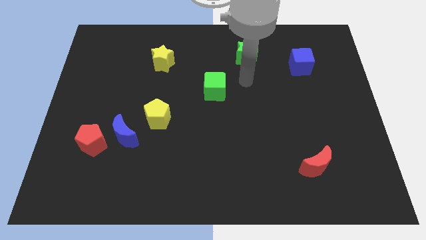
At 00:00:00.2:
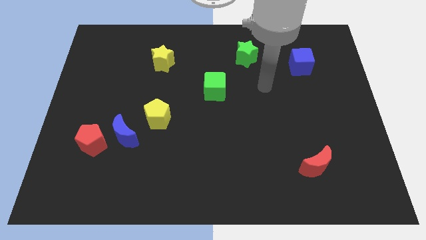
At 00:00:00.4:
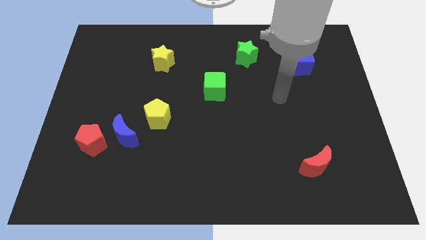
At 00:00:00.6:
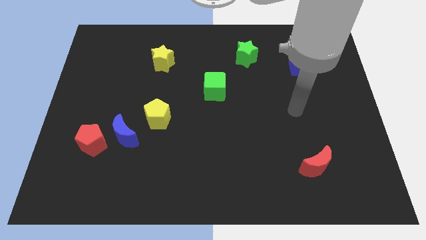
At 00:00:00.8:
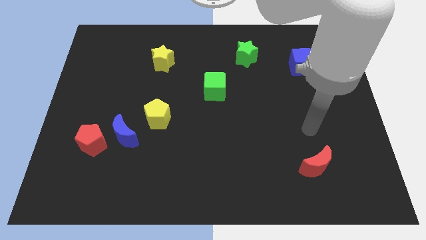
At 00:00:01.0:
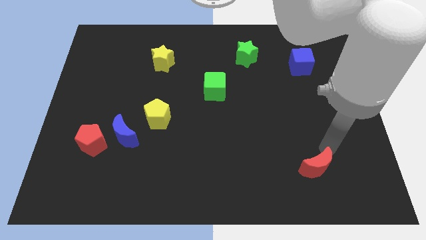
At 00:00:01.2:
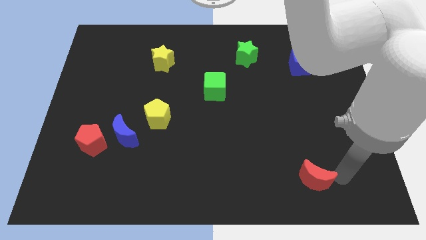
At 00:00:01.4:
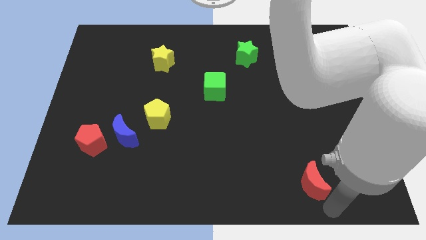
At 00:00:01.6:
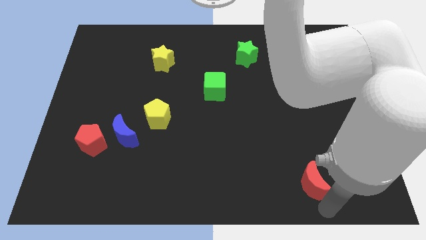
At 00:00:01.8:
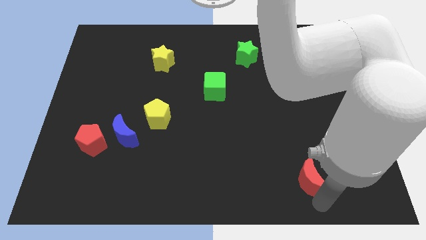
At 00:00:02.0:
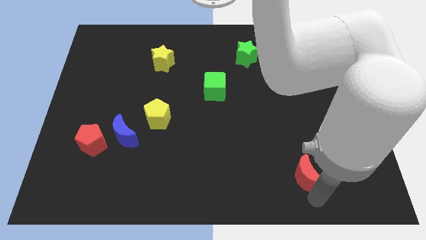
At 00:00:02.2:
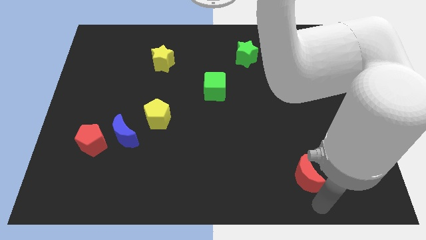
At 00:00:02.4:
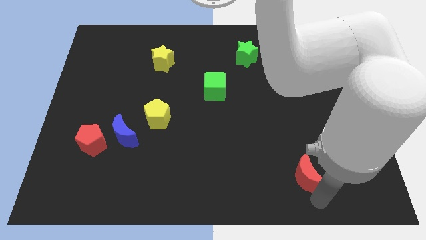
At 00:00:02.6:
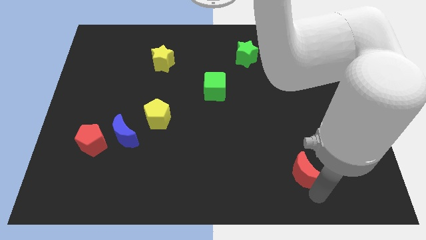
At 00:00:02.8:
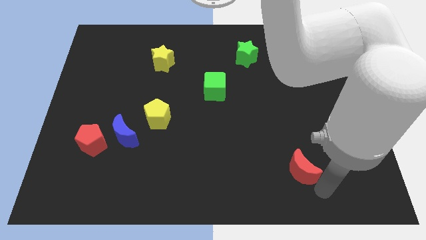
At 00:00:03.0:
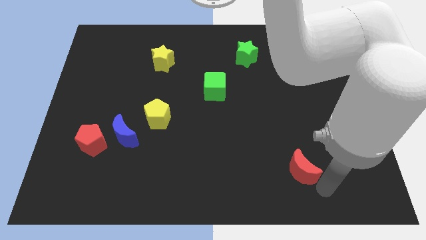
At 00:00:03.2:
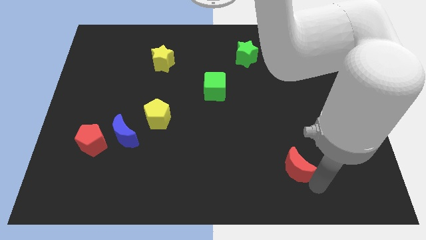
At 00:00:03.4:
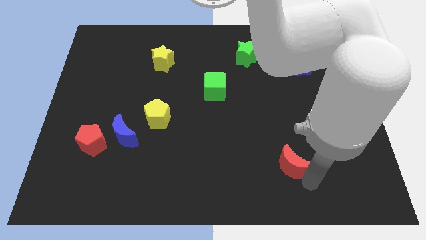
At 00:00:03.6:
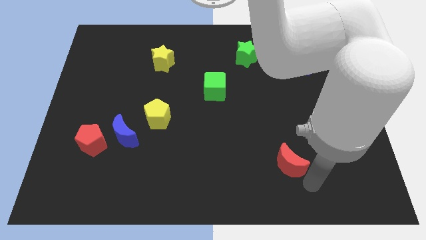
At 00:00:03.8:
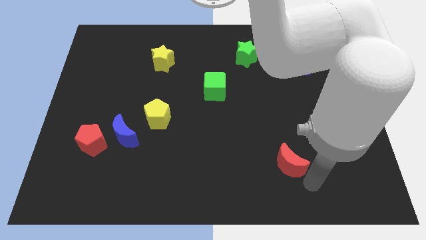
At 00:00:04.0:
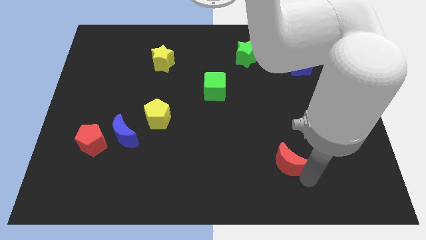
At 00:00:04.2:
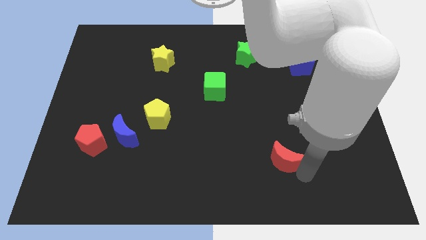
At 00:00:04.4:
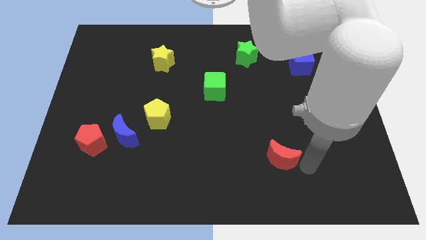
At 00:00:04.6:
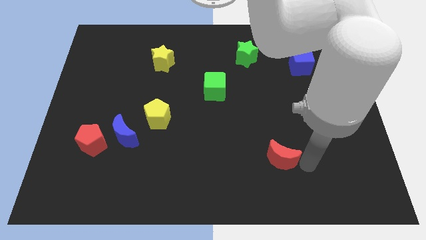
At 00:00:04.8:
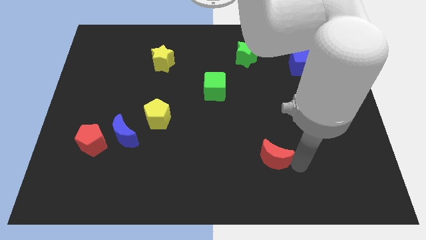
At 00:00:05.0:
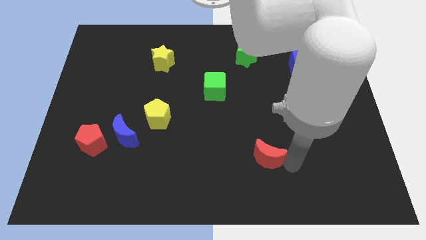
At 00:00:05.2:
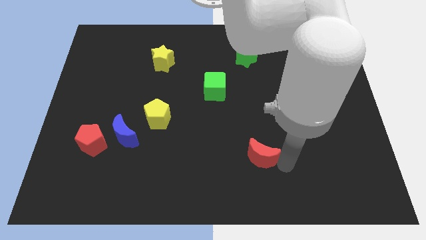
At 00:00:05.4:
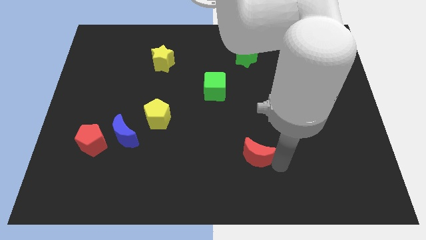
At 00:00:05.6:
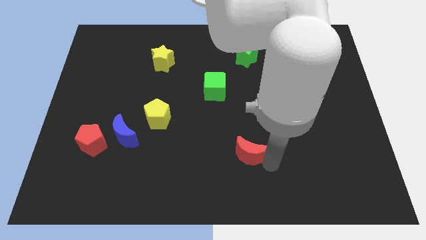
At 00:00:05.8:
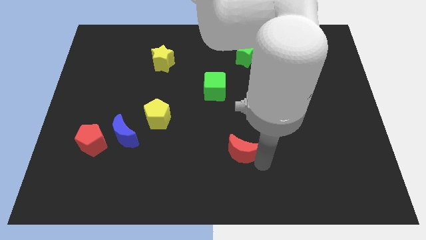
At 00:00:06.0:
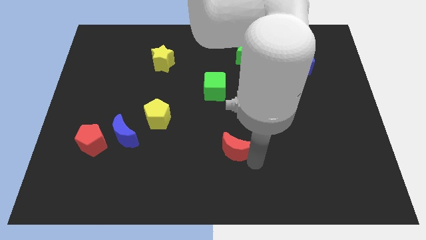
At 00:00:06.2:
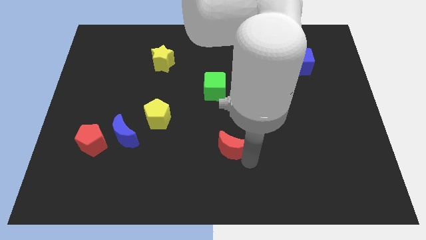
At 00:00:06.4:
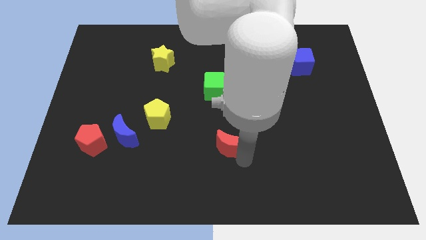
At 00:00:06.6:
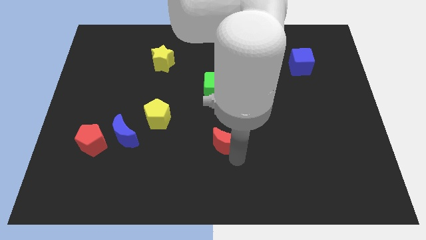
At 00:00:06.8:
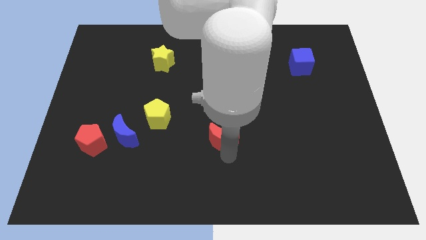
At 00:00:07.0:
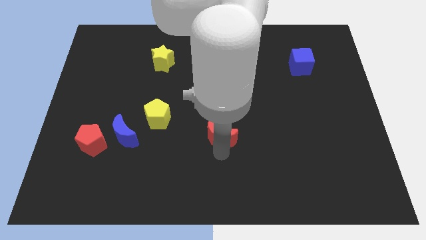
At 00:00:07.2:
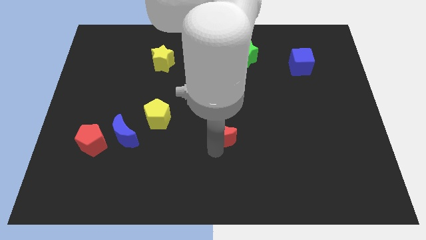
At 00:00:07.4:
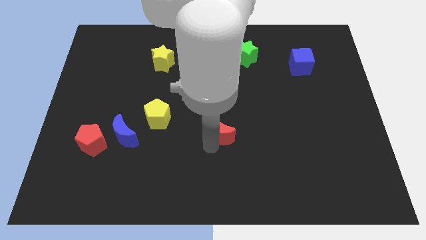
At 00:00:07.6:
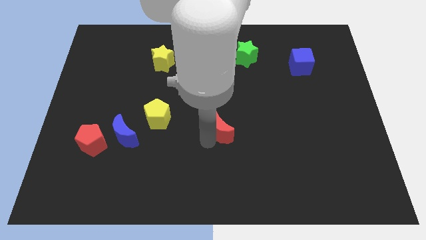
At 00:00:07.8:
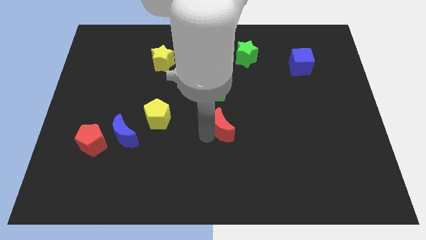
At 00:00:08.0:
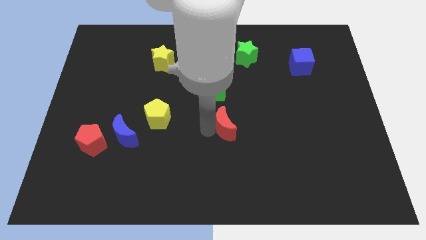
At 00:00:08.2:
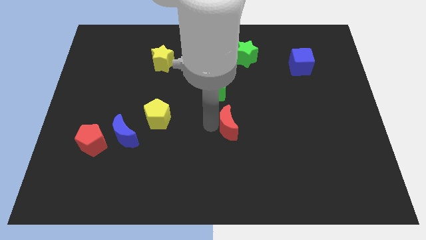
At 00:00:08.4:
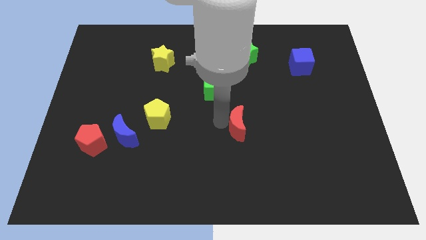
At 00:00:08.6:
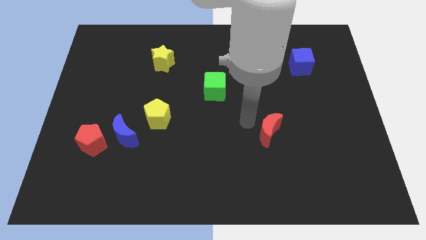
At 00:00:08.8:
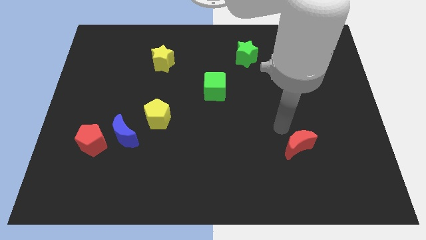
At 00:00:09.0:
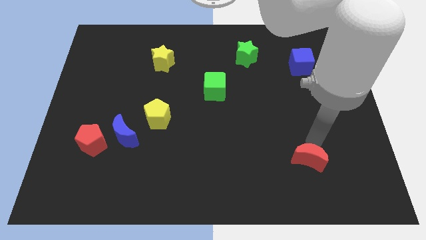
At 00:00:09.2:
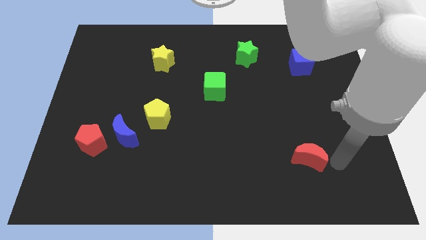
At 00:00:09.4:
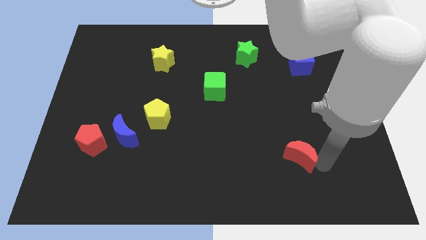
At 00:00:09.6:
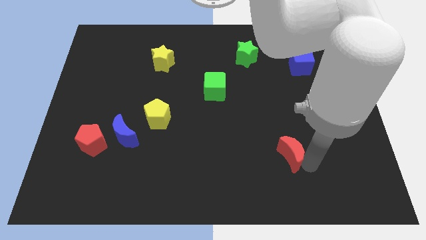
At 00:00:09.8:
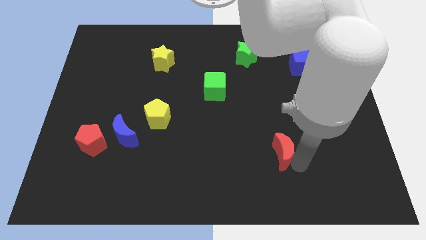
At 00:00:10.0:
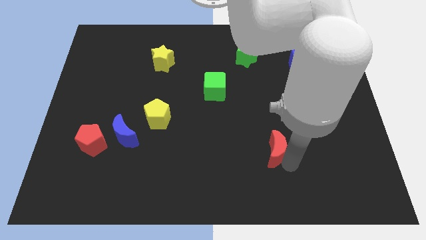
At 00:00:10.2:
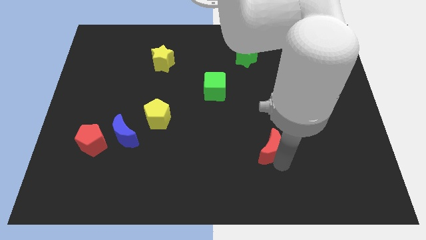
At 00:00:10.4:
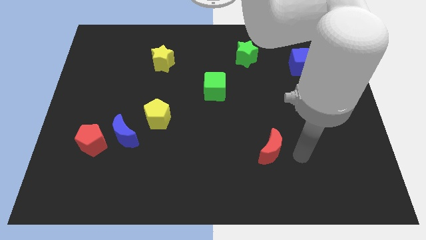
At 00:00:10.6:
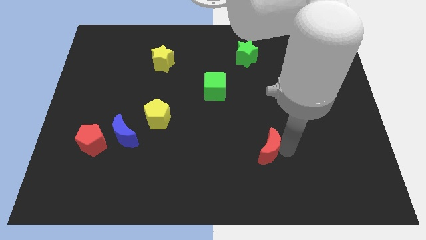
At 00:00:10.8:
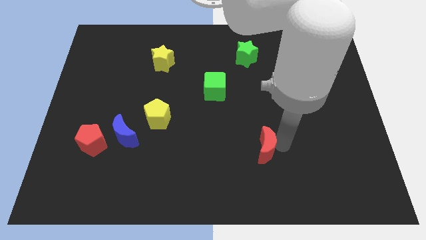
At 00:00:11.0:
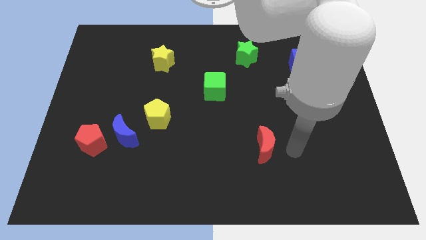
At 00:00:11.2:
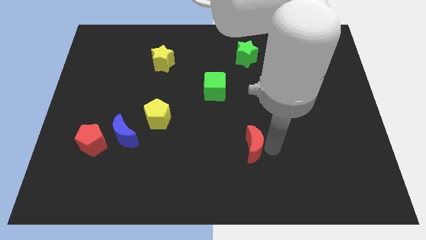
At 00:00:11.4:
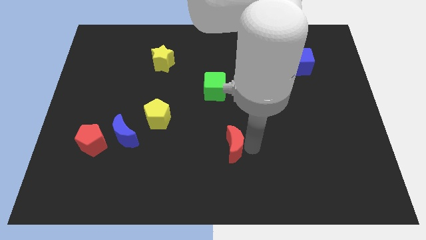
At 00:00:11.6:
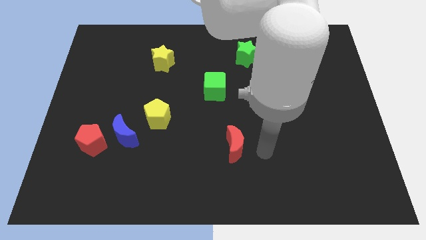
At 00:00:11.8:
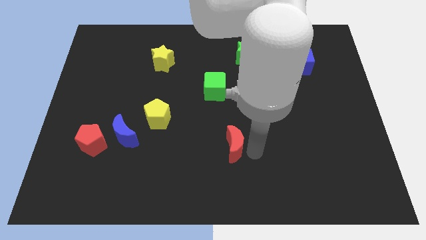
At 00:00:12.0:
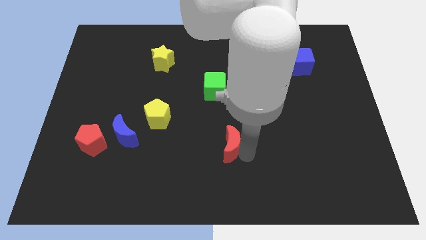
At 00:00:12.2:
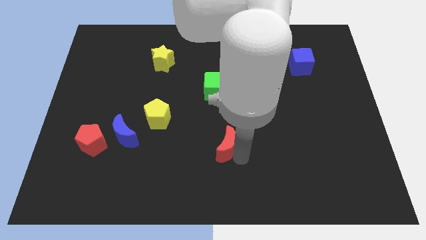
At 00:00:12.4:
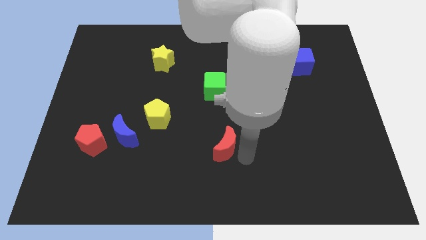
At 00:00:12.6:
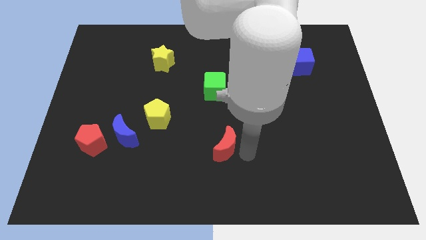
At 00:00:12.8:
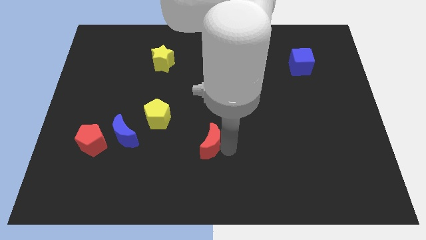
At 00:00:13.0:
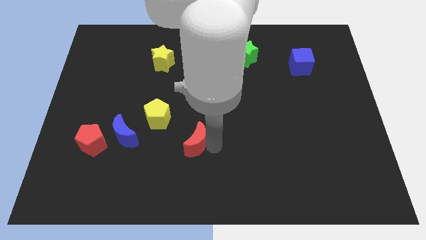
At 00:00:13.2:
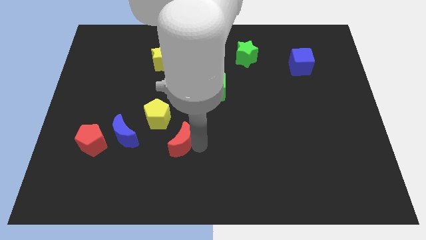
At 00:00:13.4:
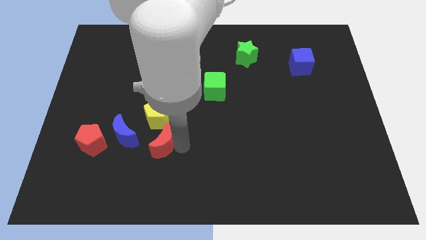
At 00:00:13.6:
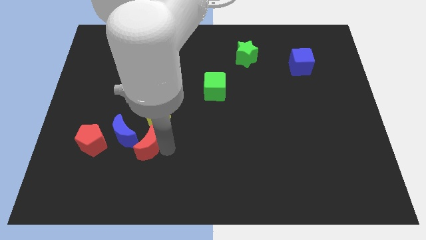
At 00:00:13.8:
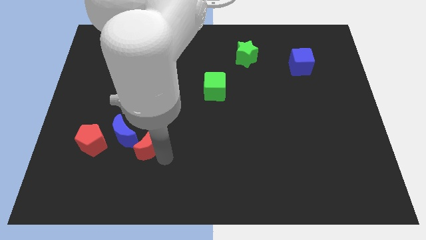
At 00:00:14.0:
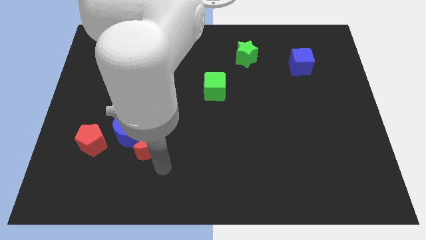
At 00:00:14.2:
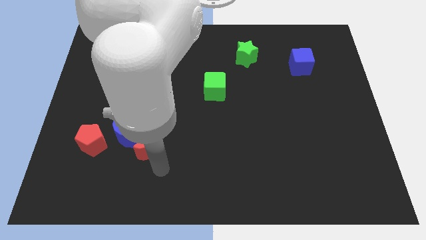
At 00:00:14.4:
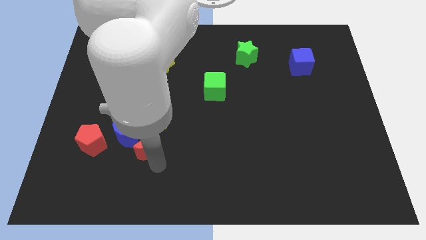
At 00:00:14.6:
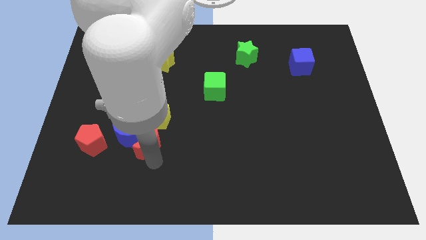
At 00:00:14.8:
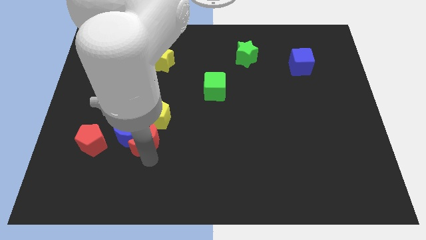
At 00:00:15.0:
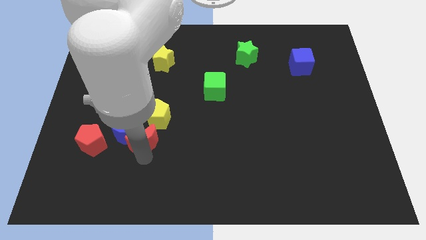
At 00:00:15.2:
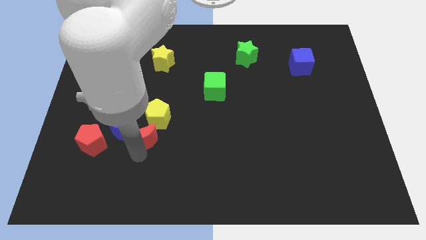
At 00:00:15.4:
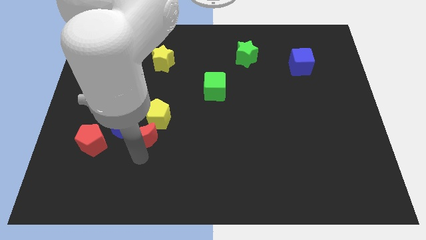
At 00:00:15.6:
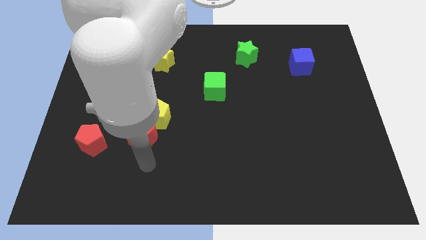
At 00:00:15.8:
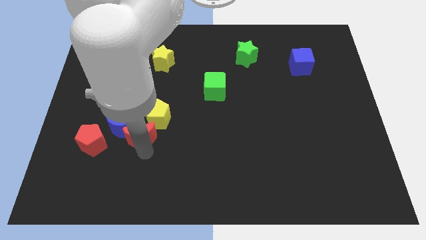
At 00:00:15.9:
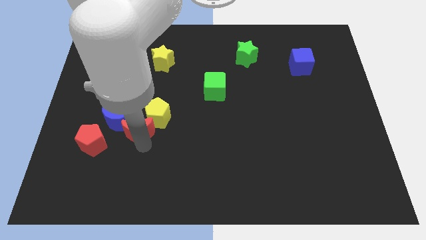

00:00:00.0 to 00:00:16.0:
slide the red moon left of the yellow pentagon
